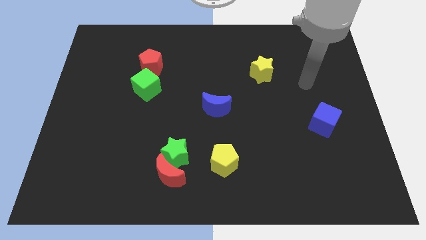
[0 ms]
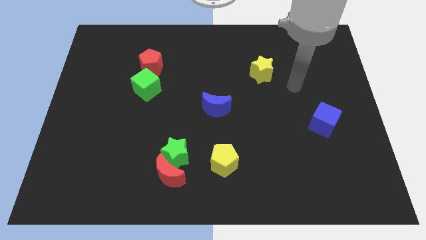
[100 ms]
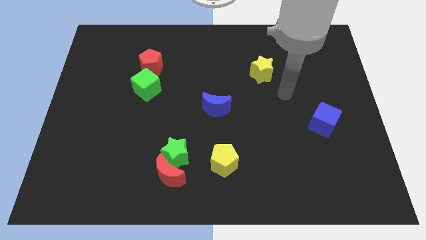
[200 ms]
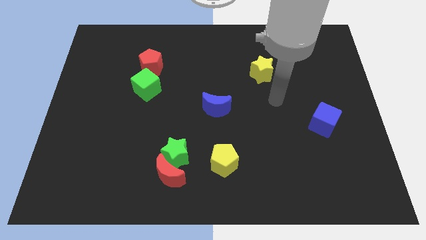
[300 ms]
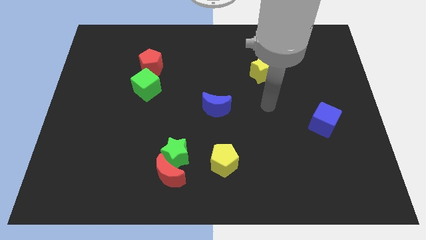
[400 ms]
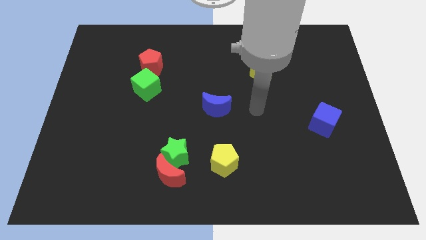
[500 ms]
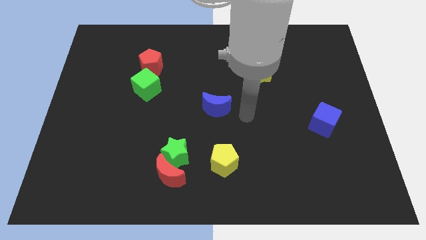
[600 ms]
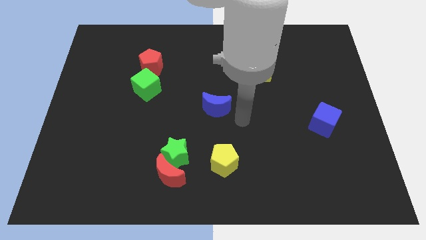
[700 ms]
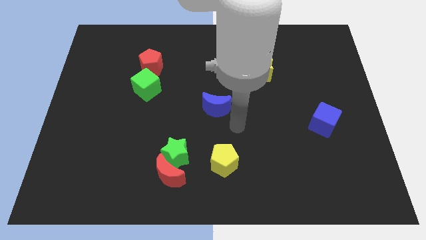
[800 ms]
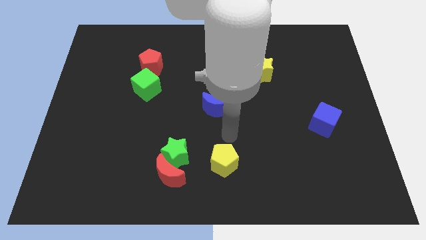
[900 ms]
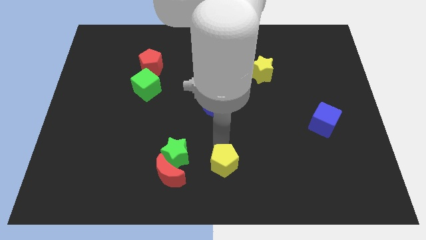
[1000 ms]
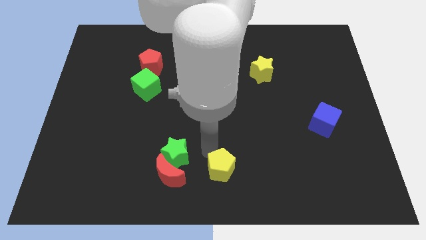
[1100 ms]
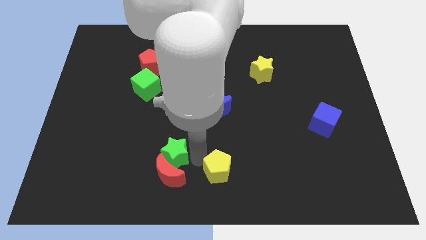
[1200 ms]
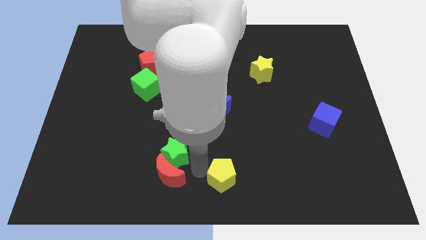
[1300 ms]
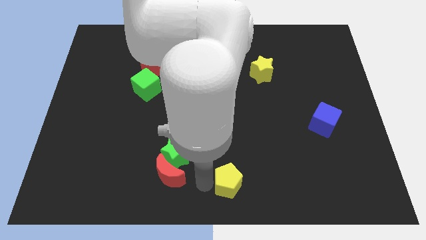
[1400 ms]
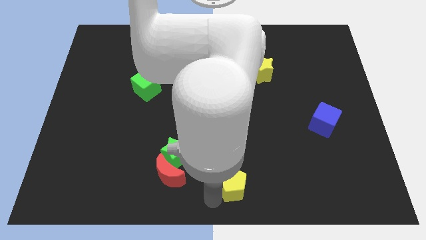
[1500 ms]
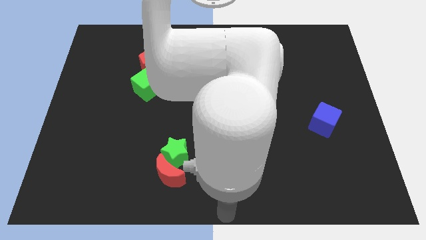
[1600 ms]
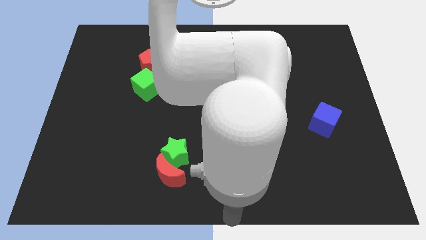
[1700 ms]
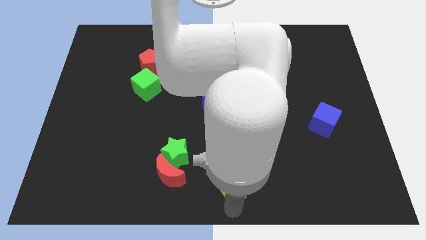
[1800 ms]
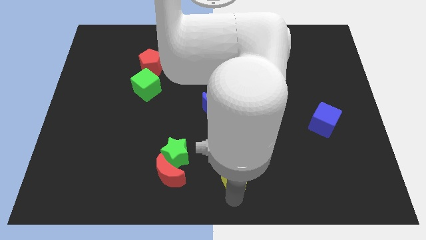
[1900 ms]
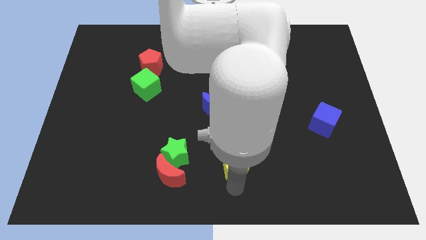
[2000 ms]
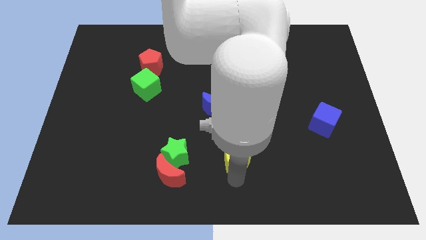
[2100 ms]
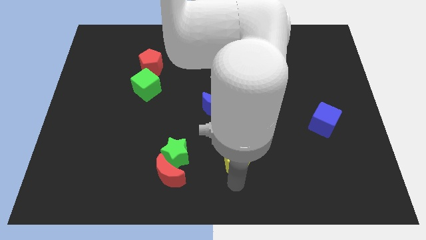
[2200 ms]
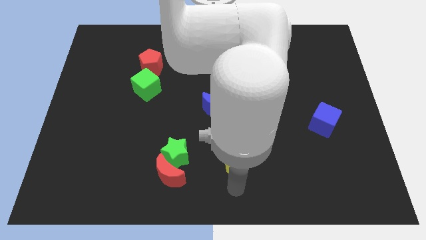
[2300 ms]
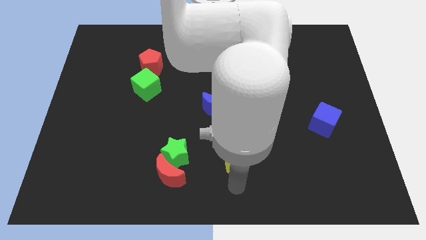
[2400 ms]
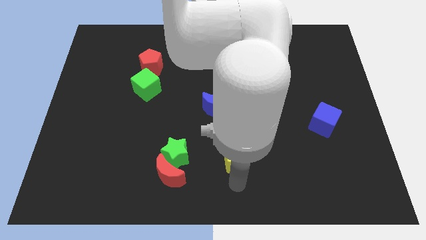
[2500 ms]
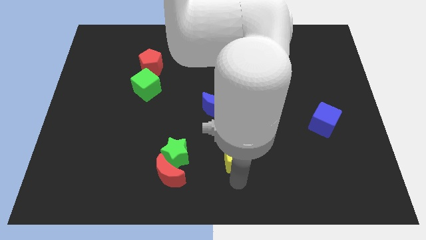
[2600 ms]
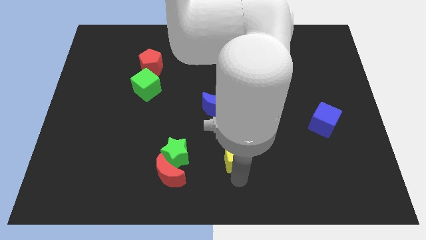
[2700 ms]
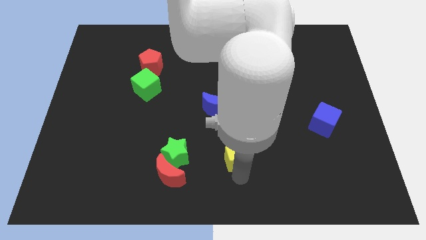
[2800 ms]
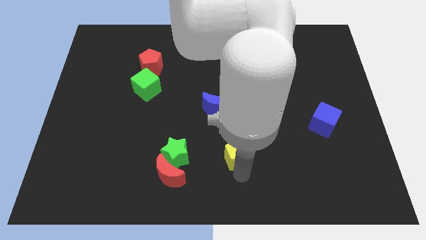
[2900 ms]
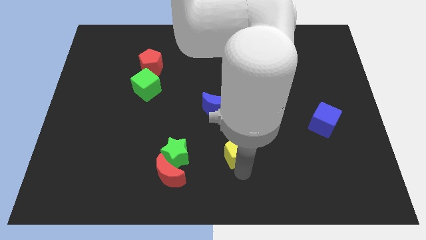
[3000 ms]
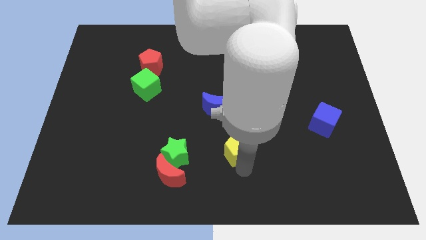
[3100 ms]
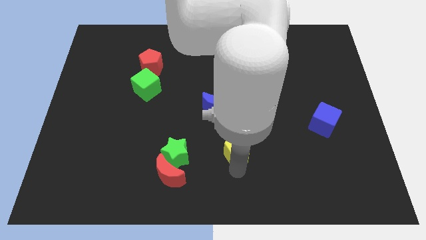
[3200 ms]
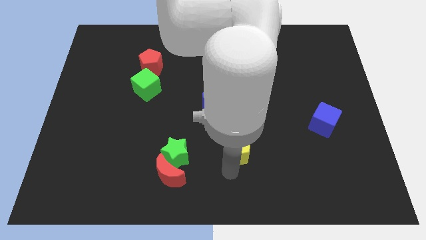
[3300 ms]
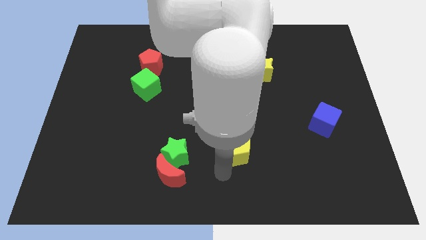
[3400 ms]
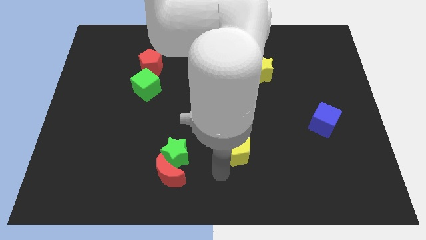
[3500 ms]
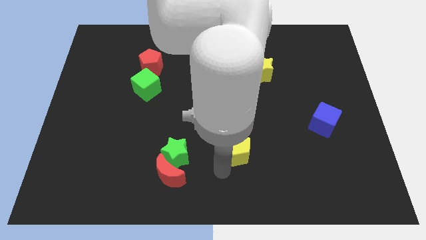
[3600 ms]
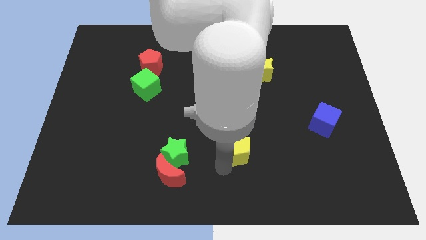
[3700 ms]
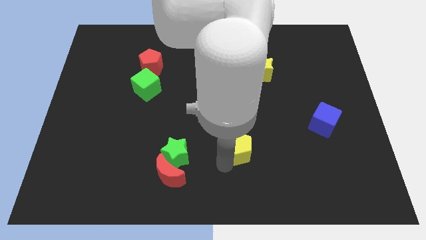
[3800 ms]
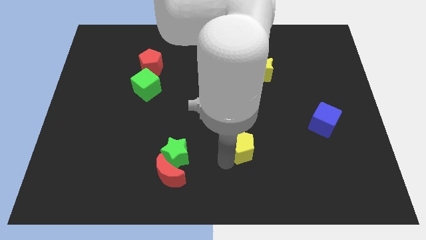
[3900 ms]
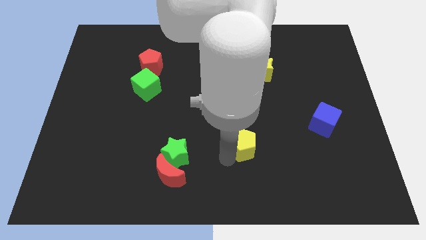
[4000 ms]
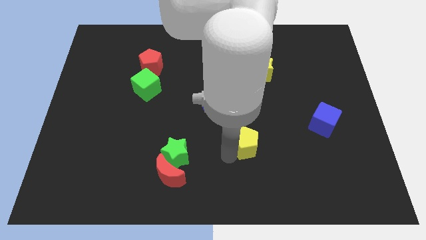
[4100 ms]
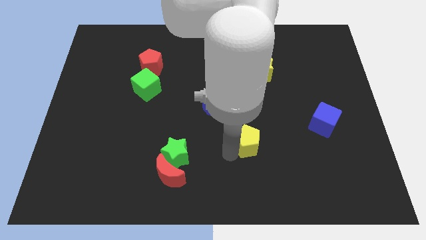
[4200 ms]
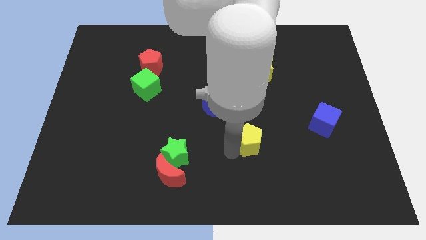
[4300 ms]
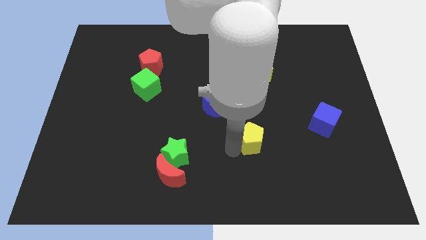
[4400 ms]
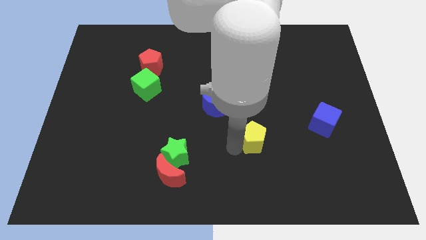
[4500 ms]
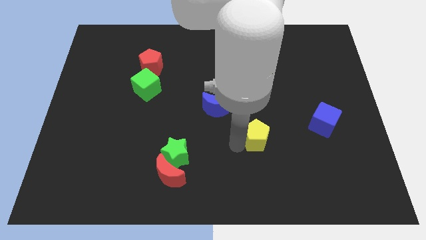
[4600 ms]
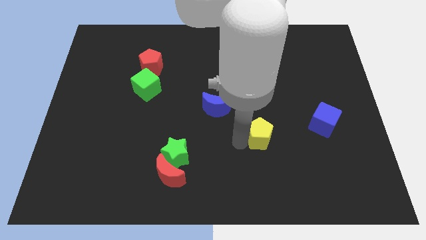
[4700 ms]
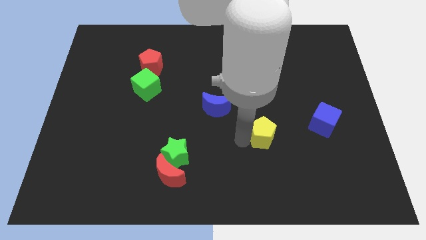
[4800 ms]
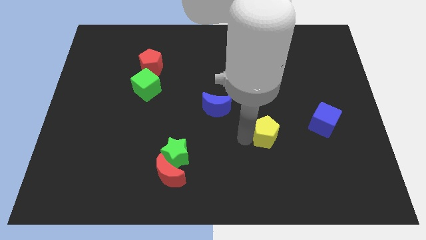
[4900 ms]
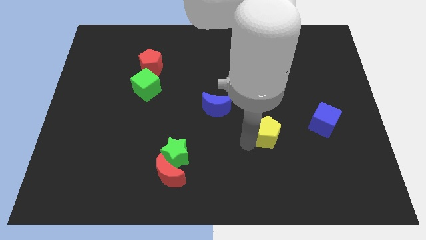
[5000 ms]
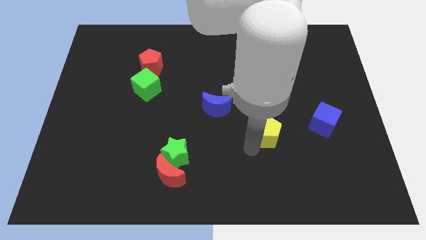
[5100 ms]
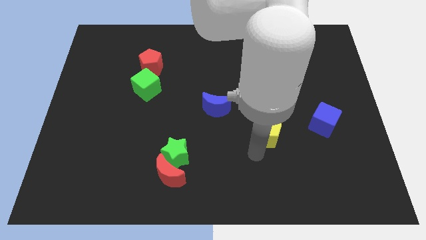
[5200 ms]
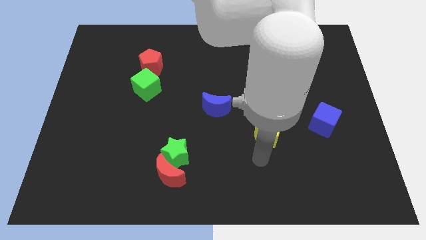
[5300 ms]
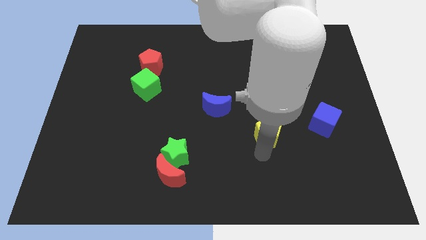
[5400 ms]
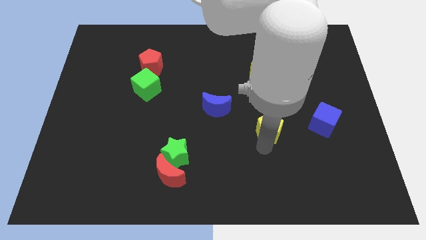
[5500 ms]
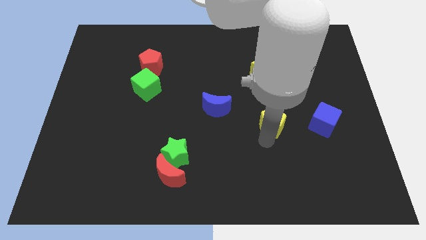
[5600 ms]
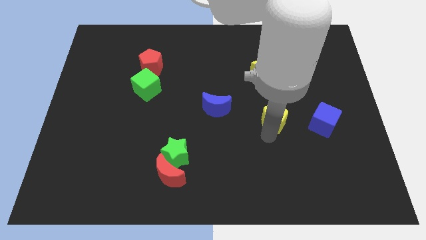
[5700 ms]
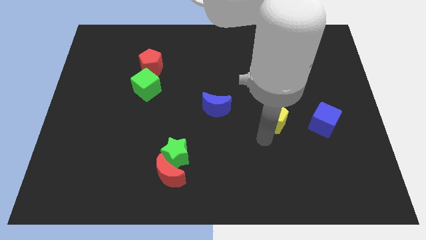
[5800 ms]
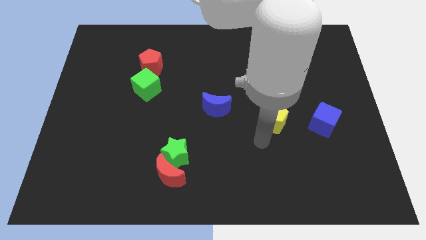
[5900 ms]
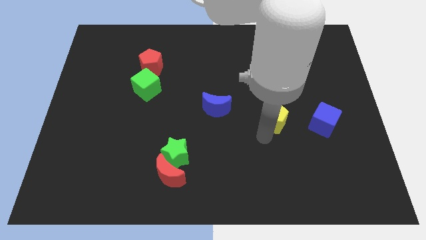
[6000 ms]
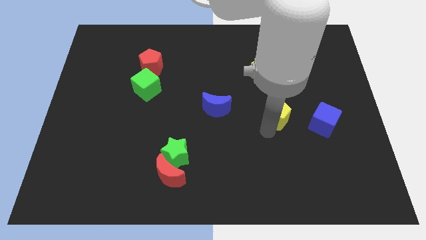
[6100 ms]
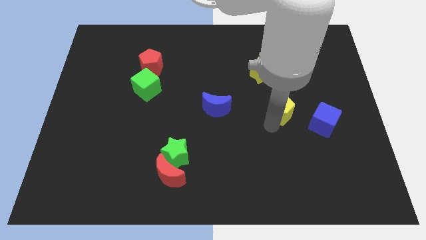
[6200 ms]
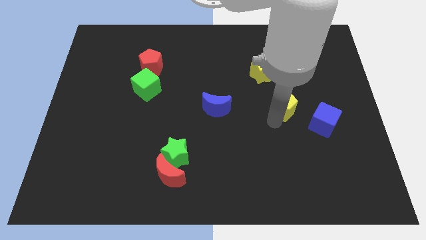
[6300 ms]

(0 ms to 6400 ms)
move the yellow pentagon up and to the right diagonally

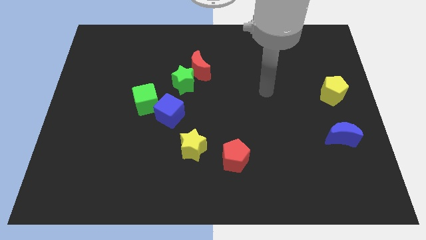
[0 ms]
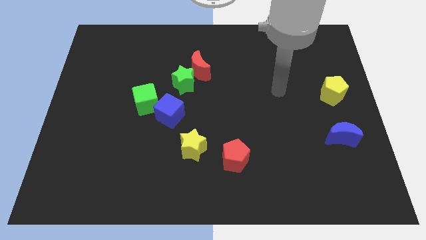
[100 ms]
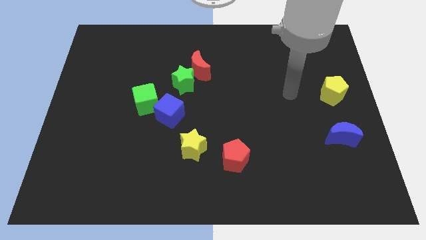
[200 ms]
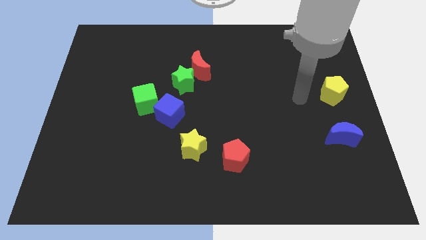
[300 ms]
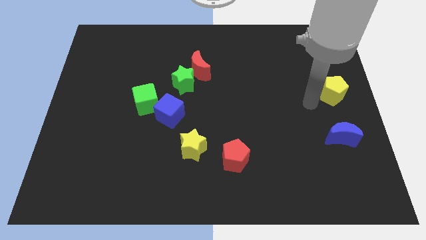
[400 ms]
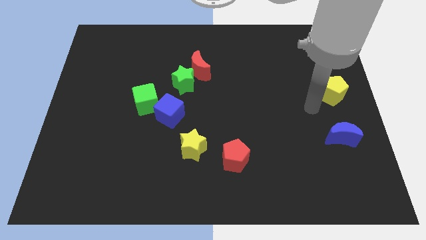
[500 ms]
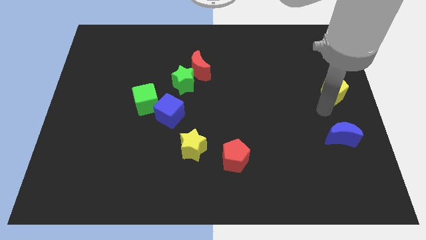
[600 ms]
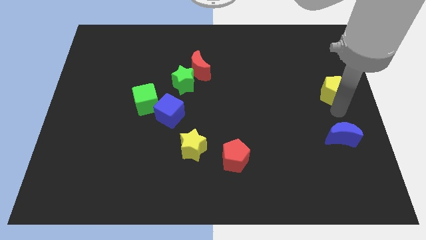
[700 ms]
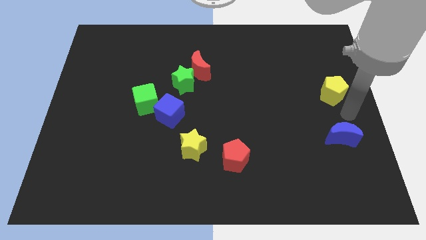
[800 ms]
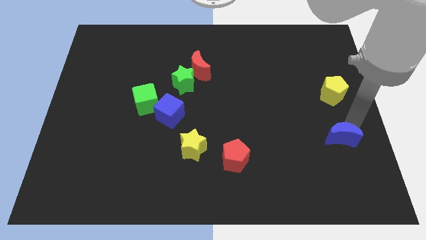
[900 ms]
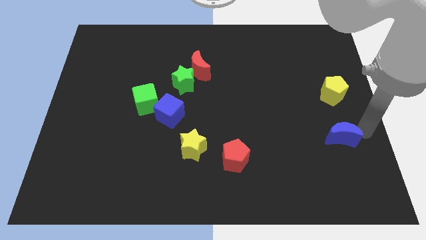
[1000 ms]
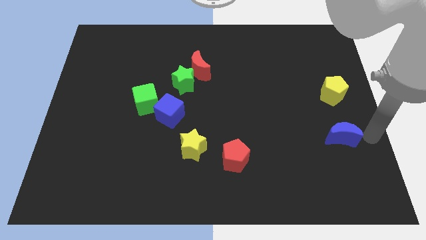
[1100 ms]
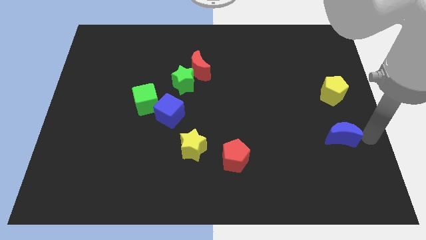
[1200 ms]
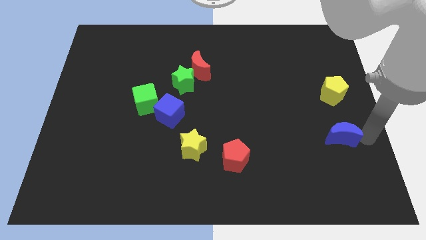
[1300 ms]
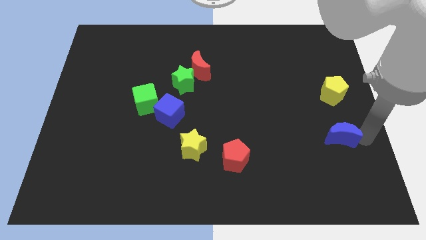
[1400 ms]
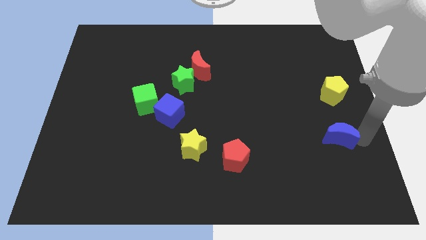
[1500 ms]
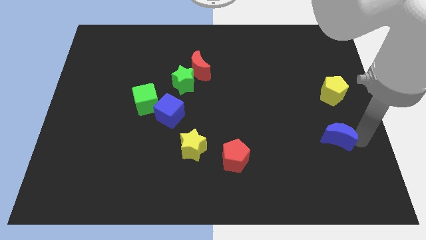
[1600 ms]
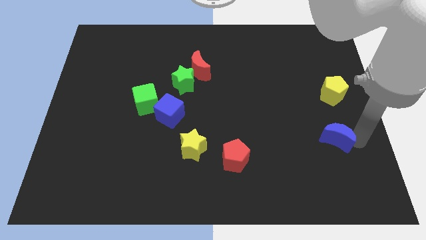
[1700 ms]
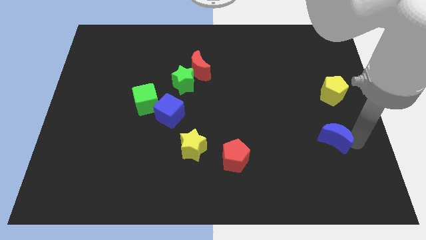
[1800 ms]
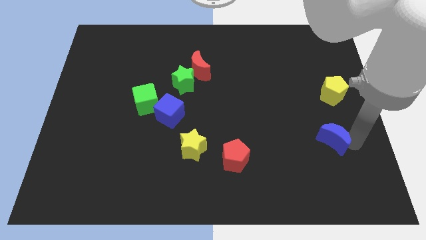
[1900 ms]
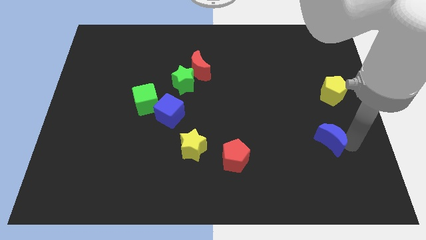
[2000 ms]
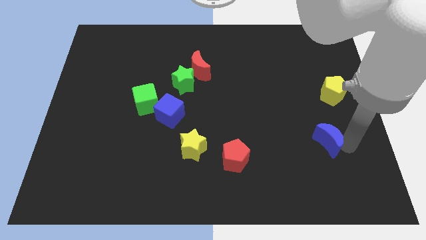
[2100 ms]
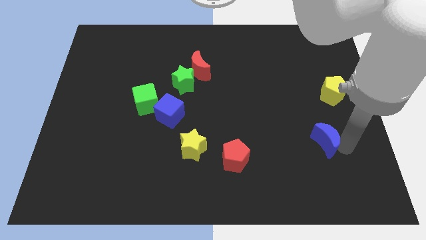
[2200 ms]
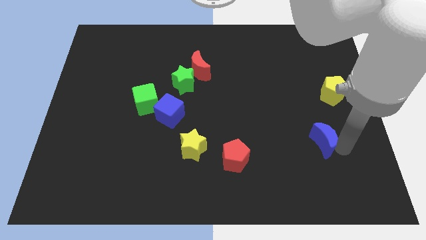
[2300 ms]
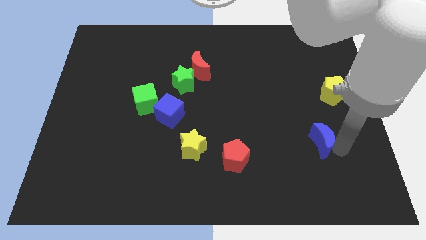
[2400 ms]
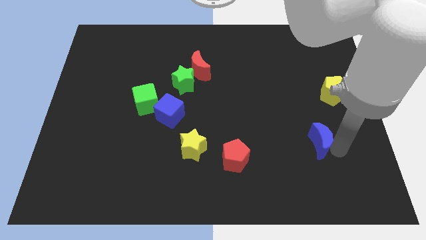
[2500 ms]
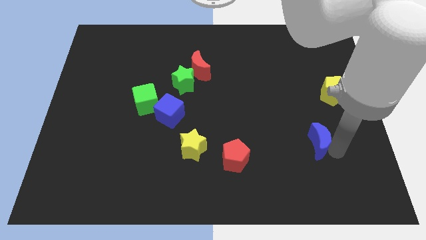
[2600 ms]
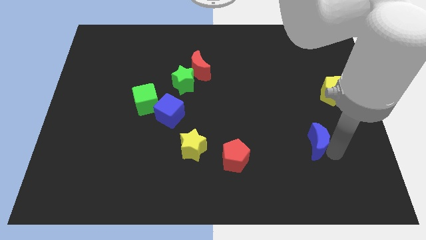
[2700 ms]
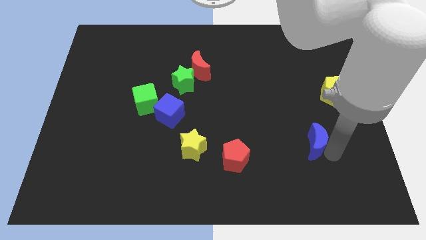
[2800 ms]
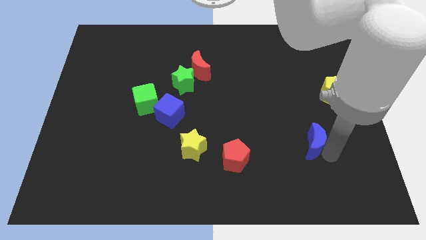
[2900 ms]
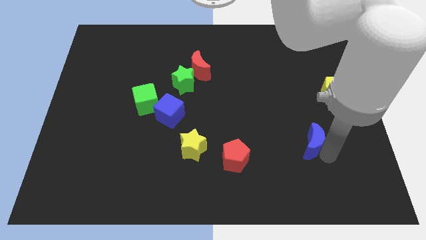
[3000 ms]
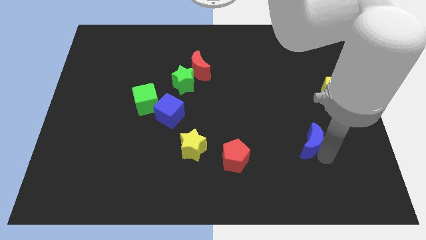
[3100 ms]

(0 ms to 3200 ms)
push the blue moon a bit to the left
